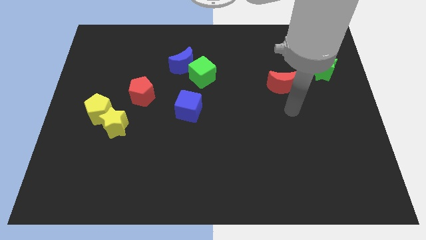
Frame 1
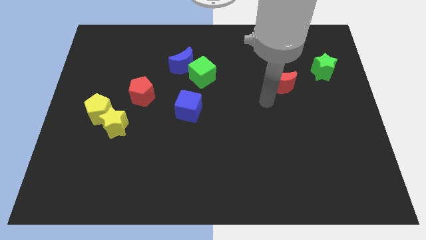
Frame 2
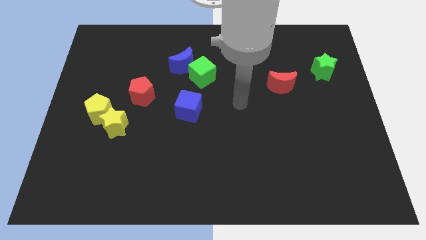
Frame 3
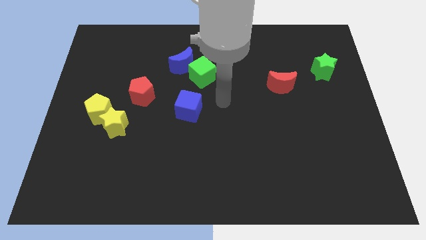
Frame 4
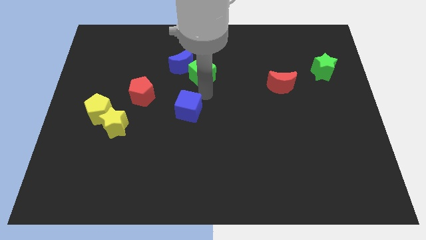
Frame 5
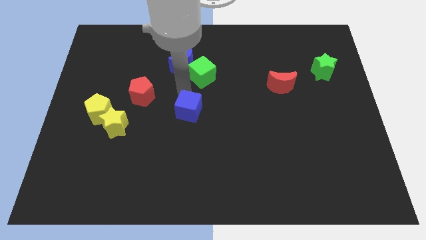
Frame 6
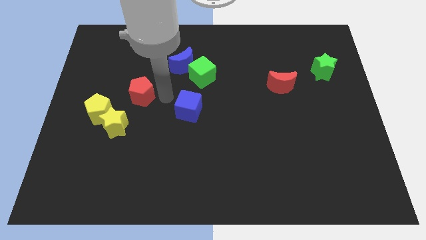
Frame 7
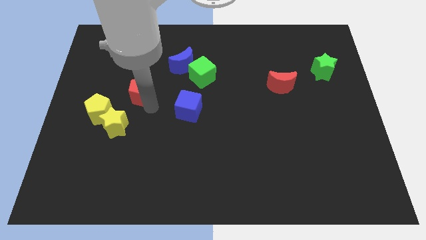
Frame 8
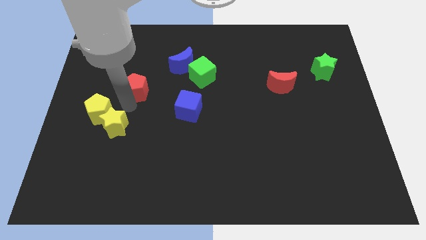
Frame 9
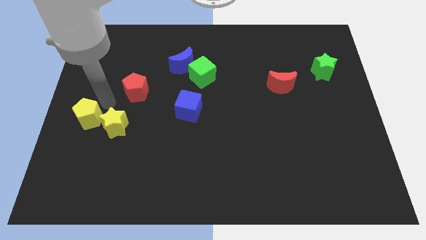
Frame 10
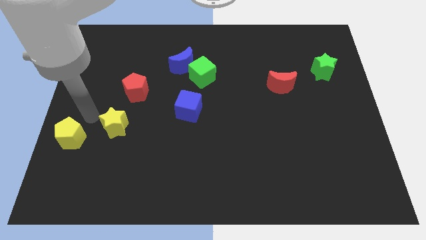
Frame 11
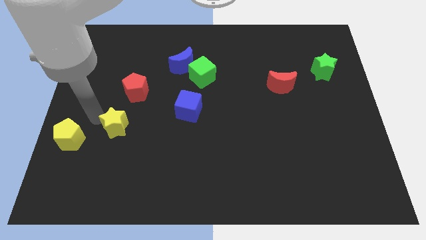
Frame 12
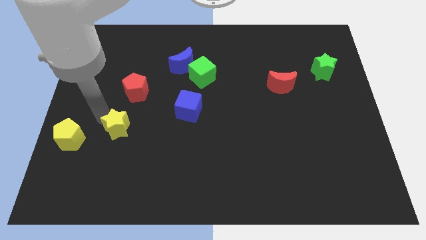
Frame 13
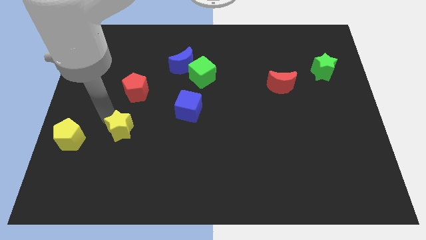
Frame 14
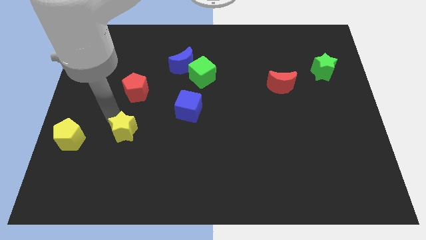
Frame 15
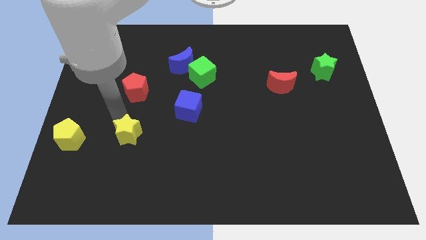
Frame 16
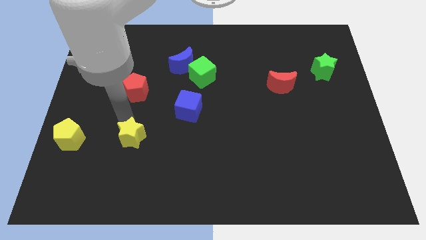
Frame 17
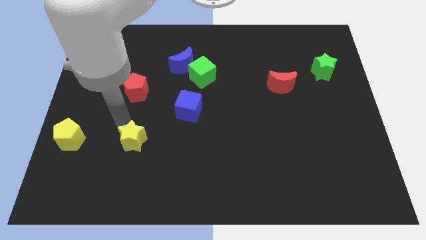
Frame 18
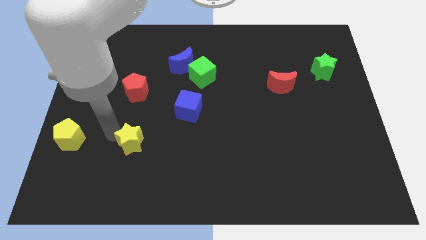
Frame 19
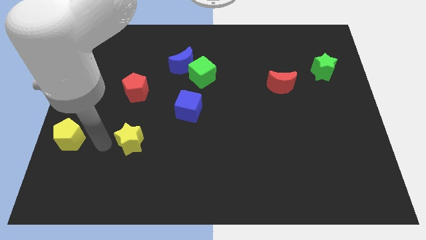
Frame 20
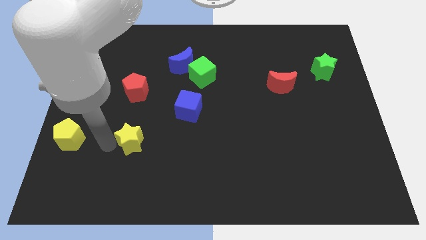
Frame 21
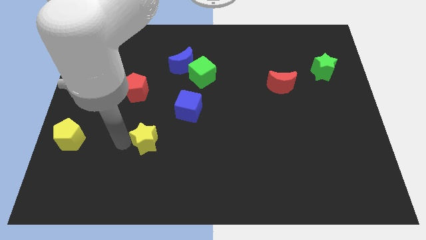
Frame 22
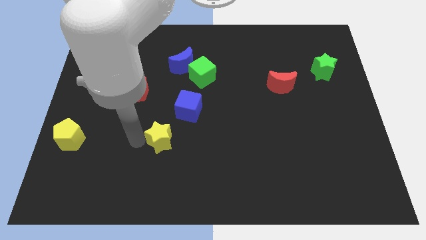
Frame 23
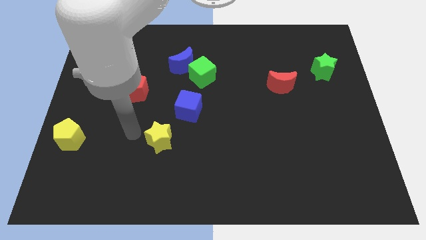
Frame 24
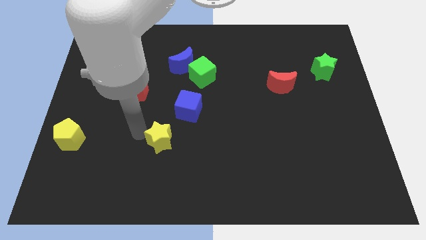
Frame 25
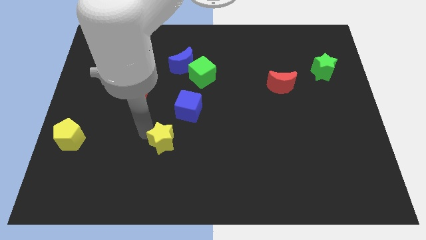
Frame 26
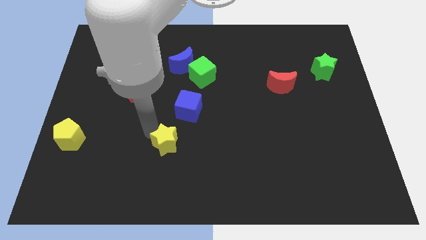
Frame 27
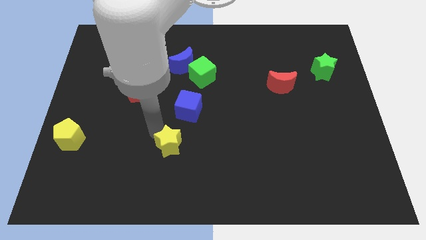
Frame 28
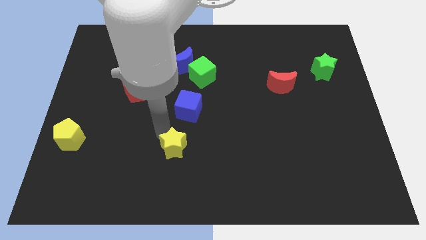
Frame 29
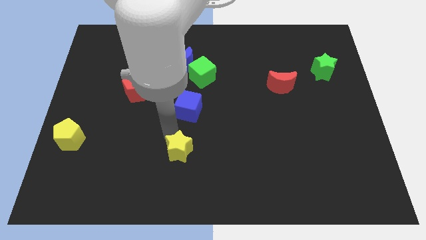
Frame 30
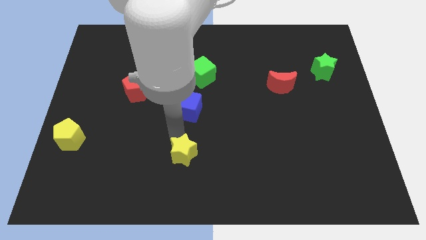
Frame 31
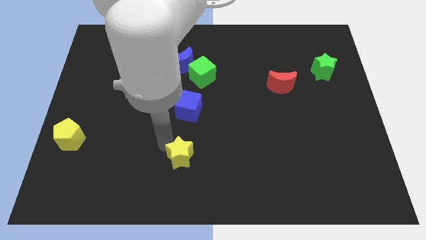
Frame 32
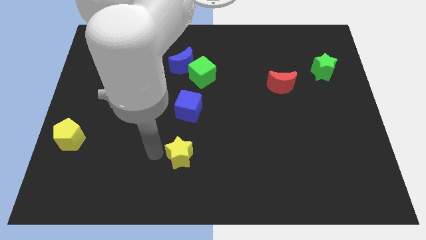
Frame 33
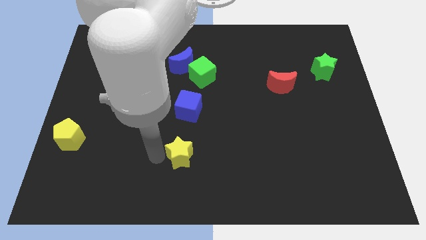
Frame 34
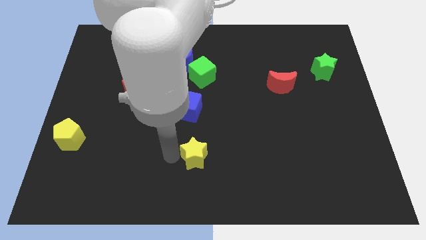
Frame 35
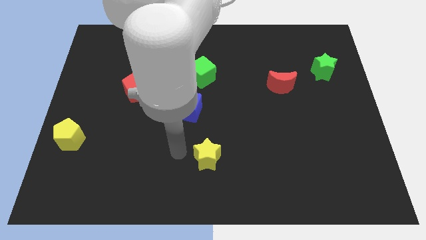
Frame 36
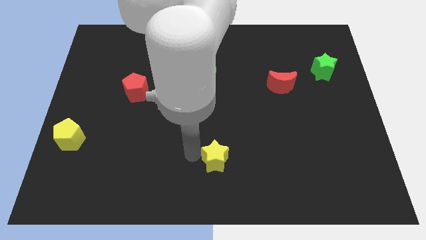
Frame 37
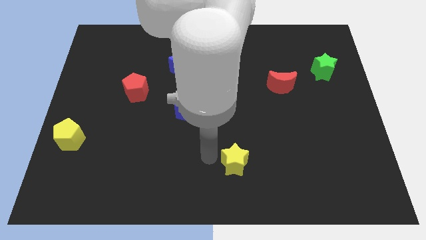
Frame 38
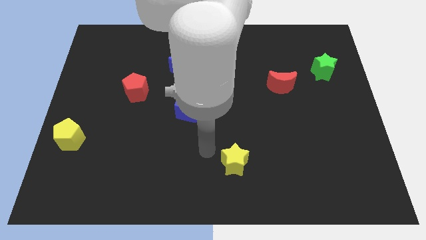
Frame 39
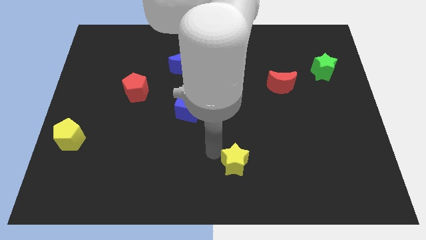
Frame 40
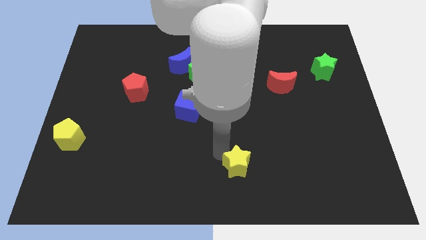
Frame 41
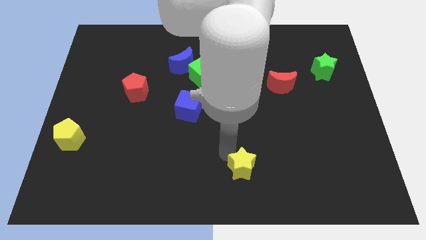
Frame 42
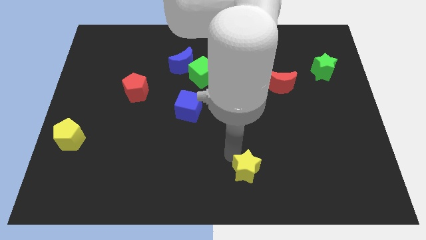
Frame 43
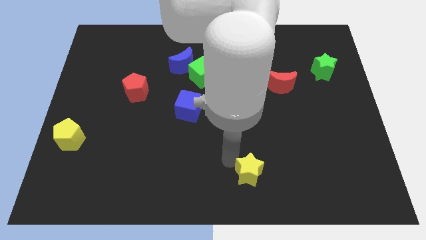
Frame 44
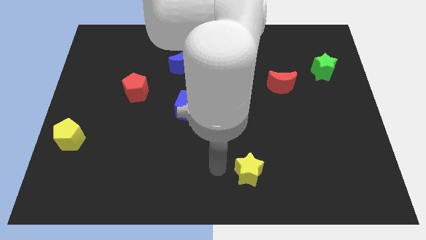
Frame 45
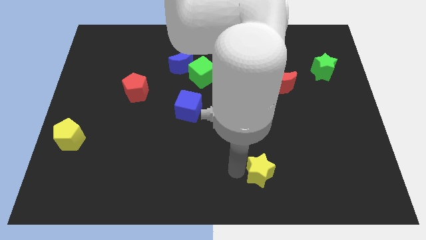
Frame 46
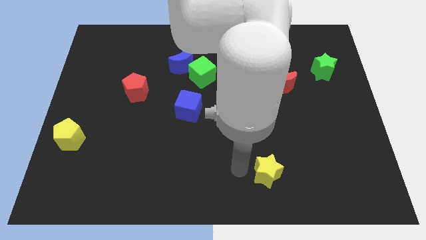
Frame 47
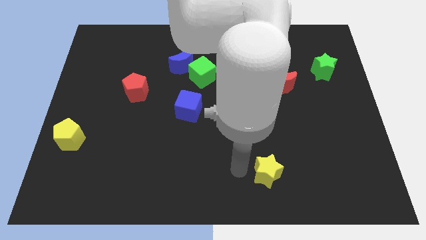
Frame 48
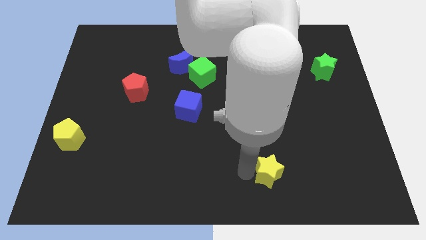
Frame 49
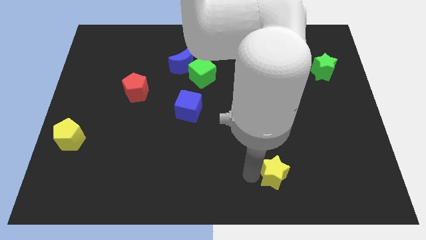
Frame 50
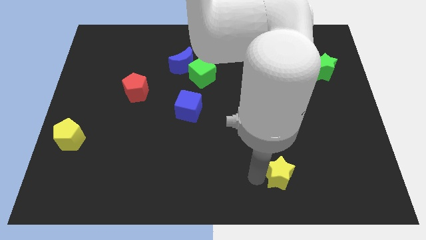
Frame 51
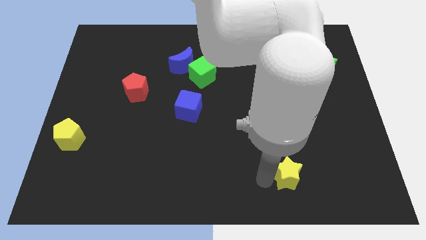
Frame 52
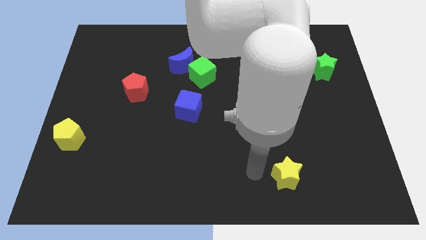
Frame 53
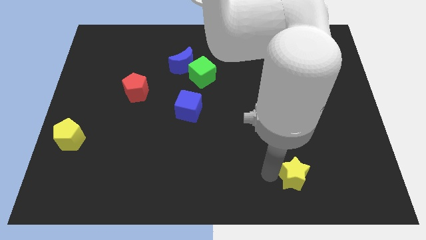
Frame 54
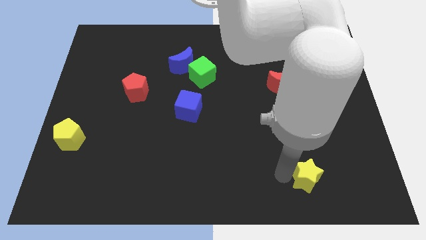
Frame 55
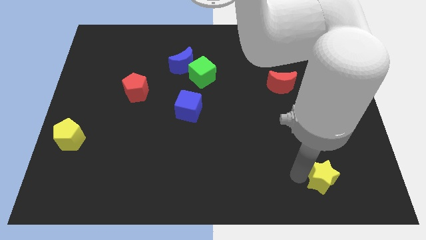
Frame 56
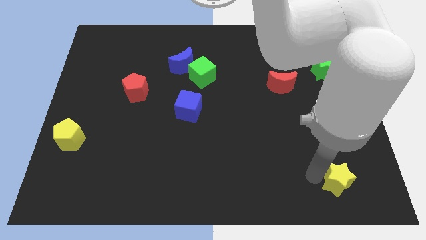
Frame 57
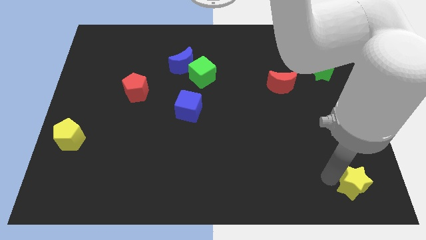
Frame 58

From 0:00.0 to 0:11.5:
push the yellow star to the bottom right of the board
